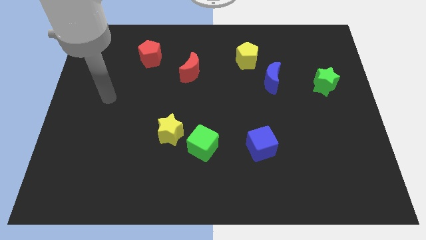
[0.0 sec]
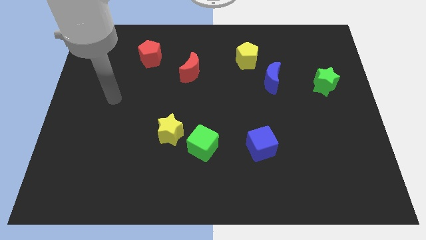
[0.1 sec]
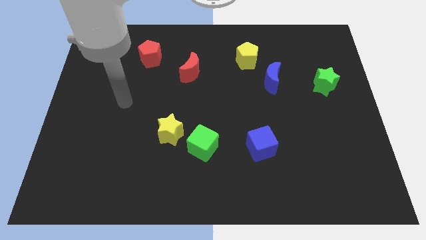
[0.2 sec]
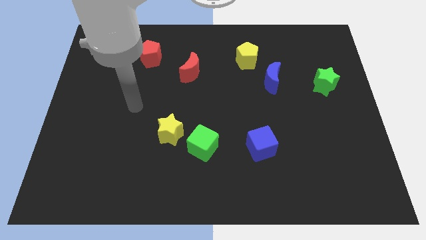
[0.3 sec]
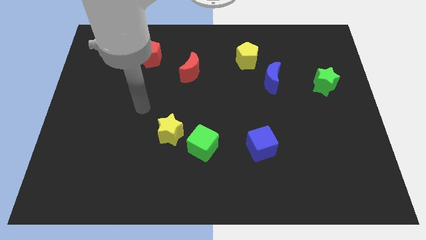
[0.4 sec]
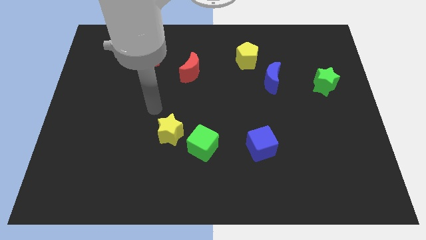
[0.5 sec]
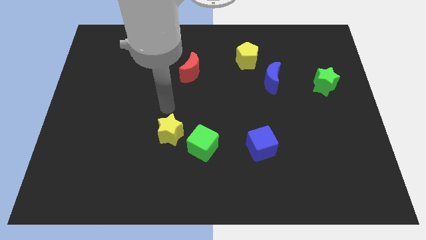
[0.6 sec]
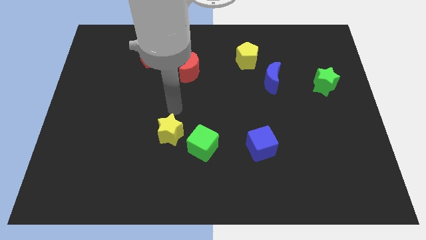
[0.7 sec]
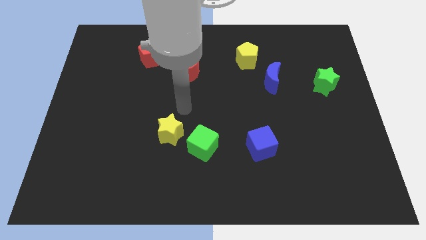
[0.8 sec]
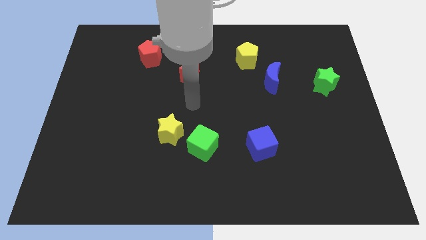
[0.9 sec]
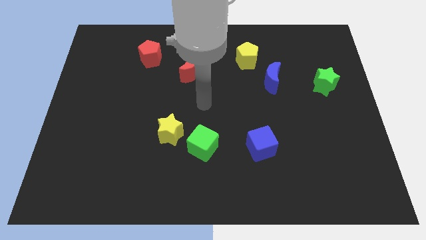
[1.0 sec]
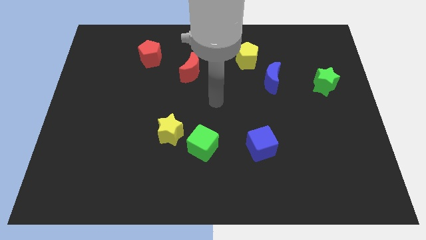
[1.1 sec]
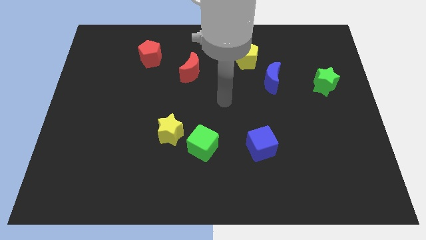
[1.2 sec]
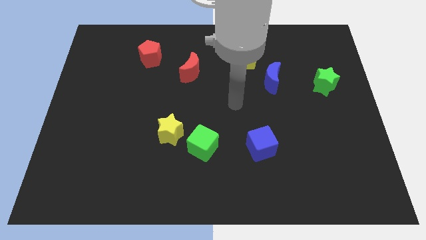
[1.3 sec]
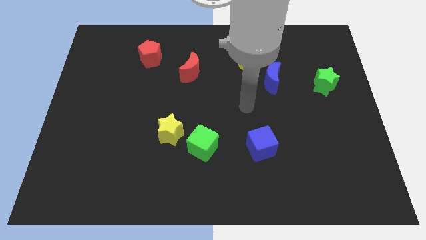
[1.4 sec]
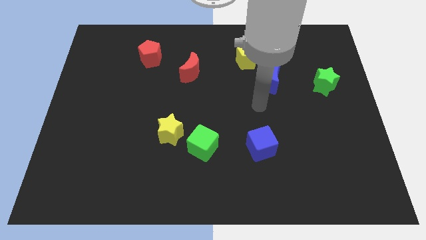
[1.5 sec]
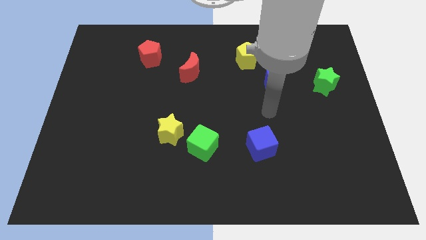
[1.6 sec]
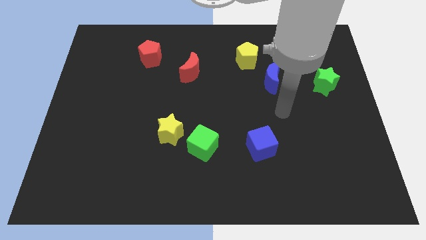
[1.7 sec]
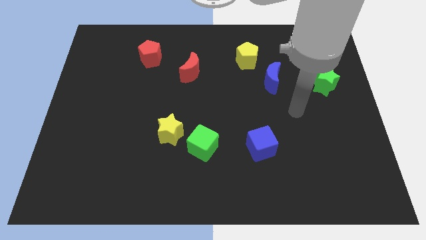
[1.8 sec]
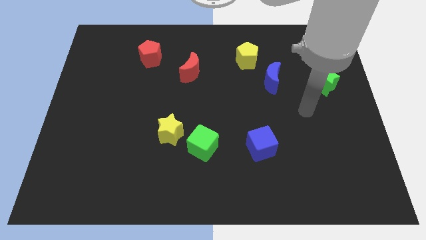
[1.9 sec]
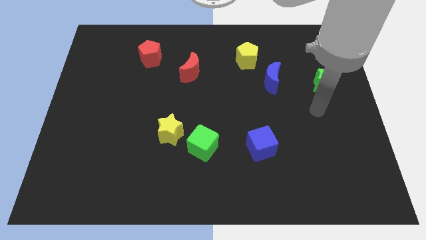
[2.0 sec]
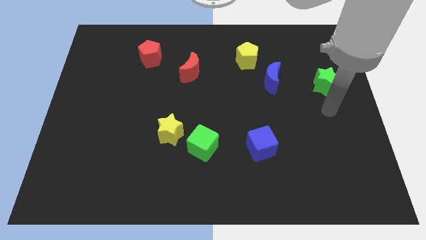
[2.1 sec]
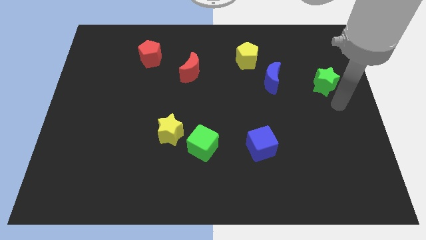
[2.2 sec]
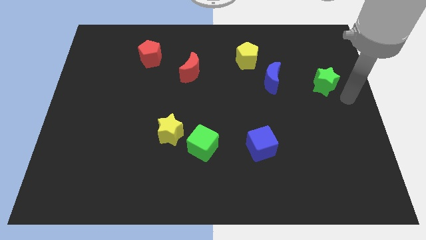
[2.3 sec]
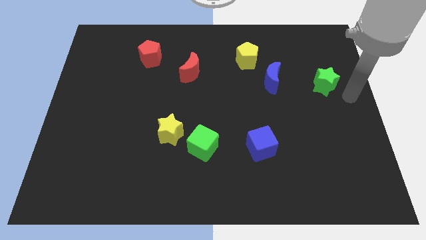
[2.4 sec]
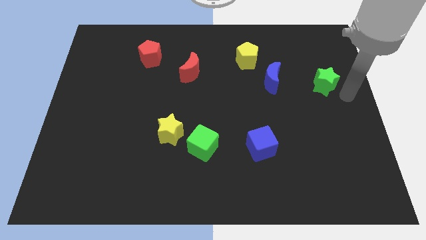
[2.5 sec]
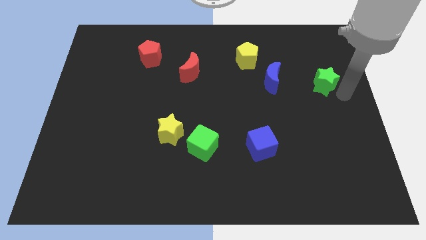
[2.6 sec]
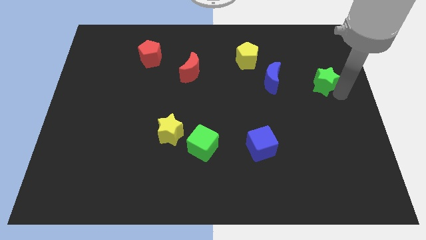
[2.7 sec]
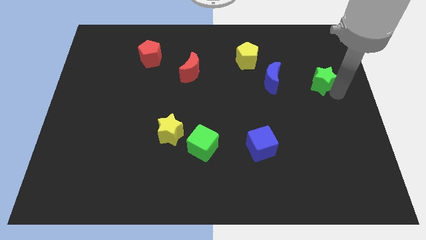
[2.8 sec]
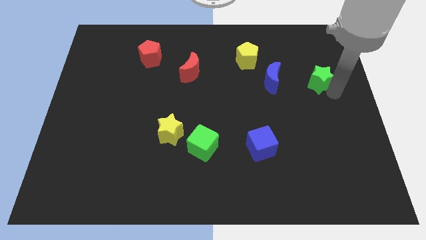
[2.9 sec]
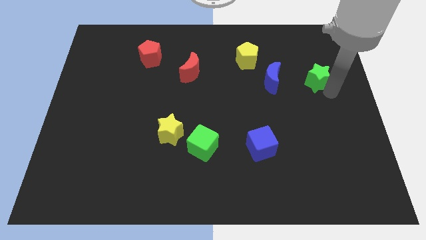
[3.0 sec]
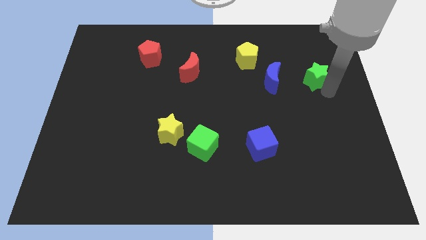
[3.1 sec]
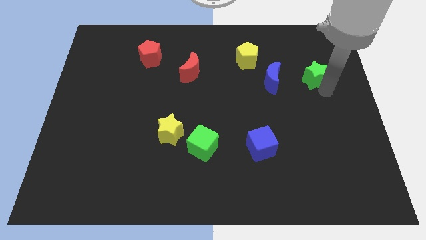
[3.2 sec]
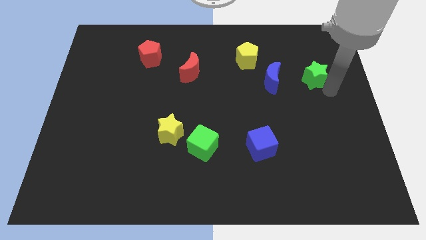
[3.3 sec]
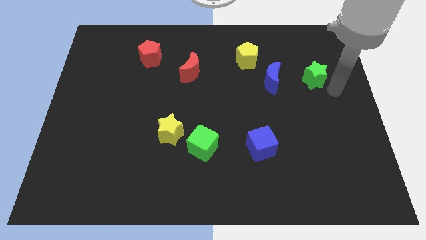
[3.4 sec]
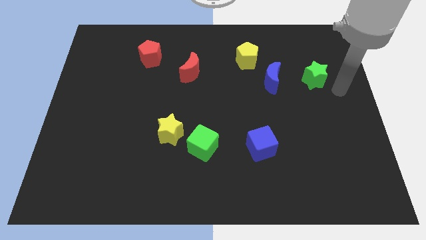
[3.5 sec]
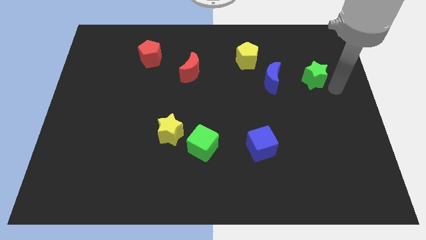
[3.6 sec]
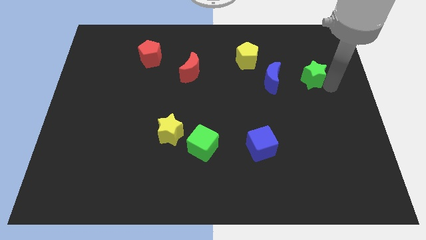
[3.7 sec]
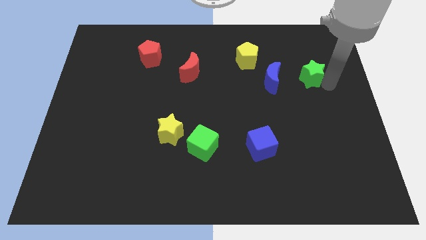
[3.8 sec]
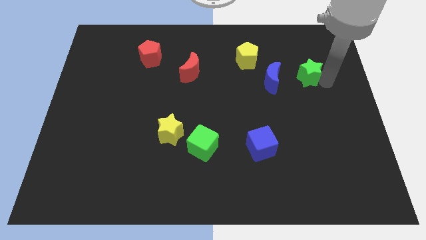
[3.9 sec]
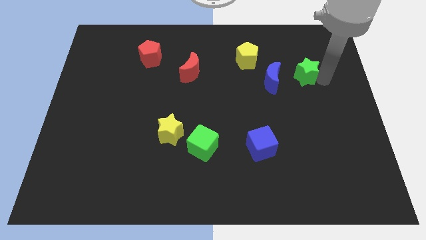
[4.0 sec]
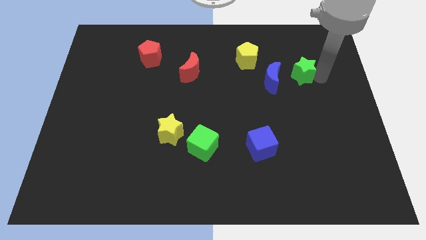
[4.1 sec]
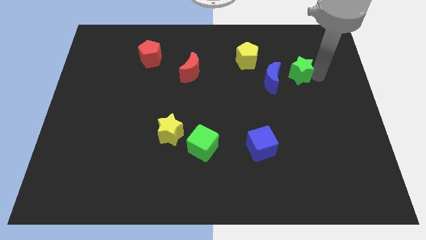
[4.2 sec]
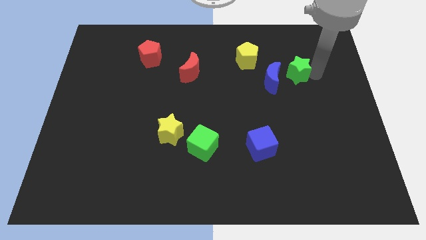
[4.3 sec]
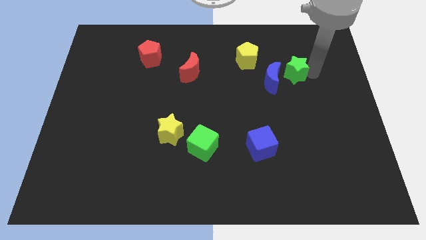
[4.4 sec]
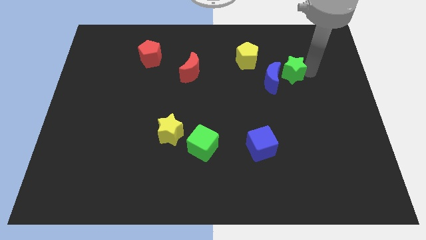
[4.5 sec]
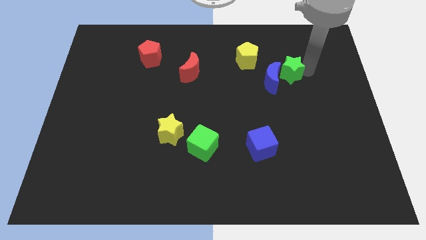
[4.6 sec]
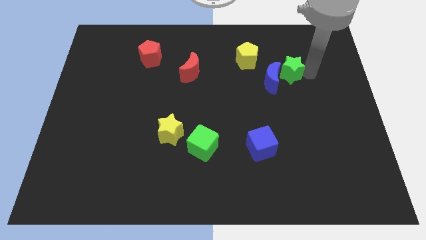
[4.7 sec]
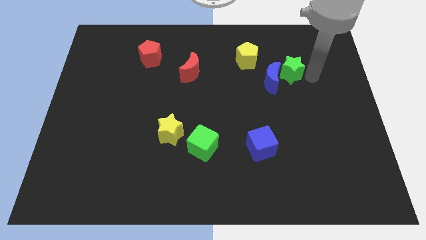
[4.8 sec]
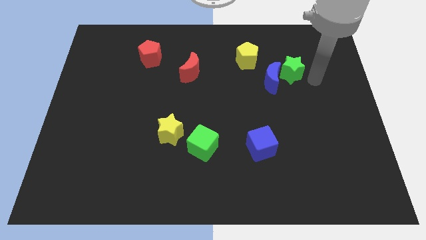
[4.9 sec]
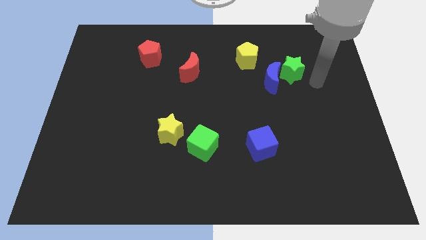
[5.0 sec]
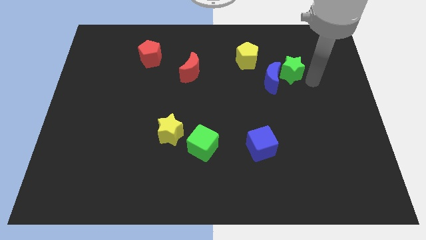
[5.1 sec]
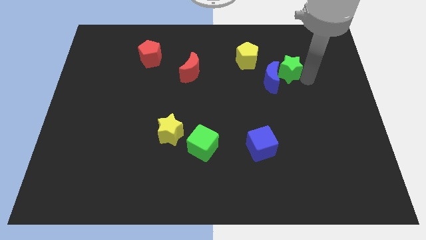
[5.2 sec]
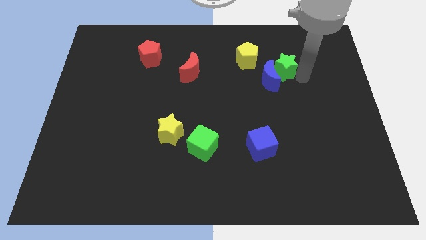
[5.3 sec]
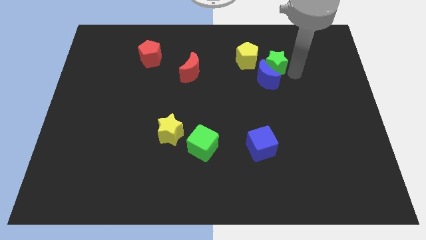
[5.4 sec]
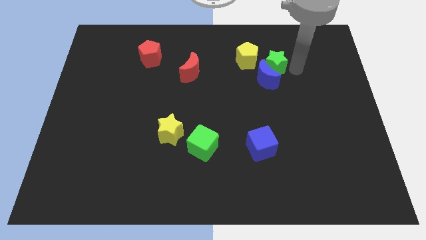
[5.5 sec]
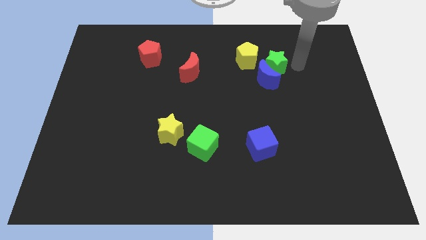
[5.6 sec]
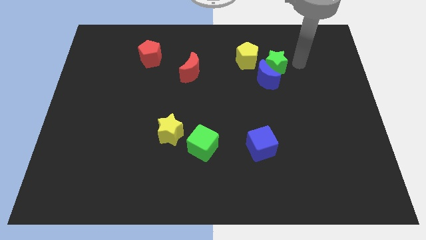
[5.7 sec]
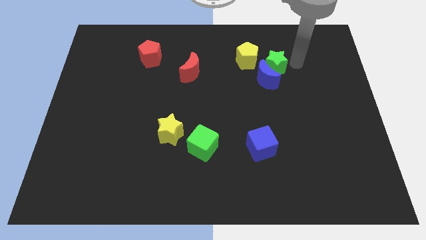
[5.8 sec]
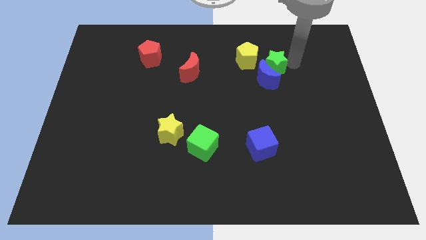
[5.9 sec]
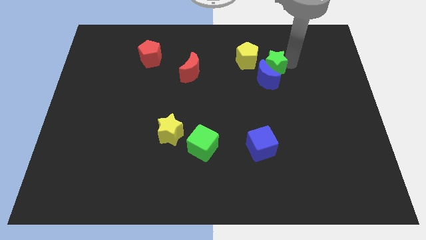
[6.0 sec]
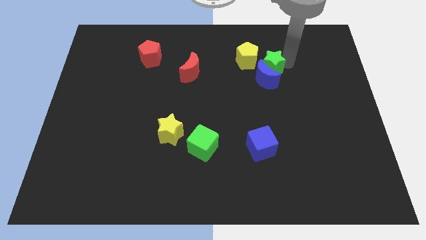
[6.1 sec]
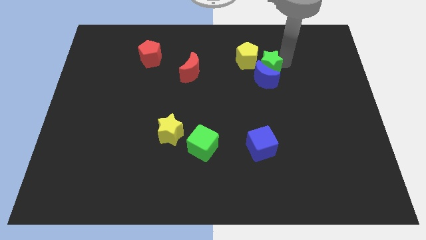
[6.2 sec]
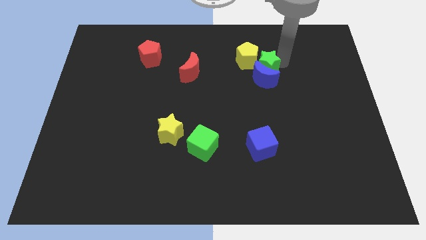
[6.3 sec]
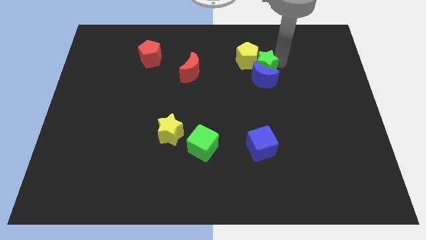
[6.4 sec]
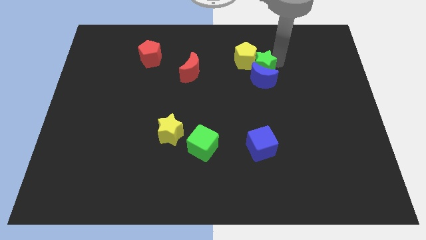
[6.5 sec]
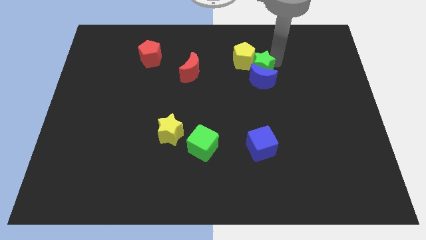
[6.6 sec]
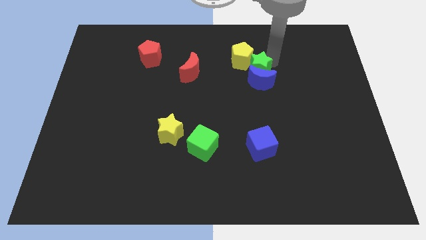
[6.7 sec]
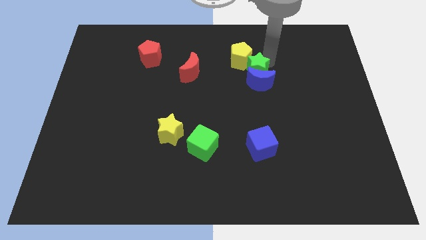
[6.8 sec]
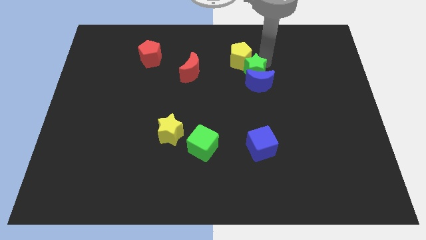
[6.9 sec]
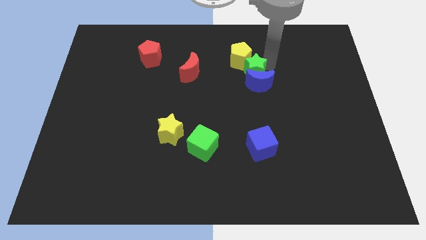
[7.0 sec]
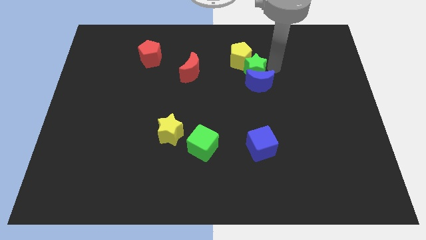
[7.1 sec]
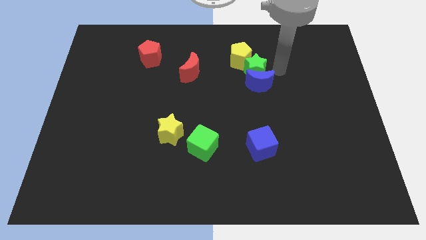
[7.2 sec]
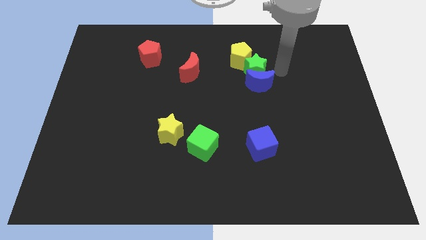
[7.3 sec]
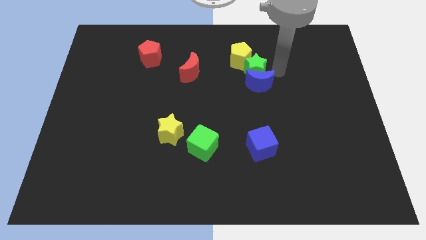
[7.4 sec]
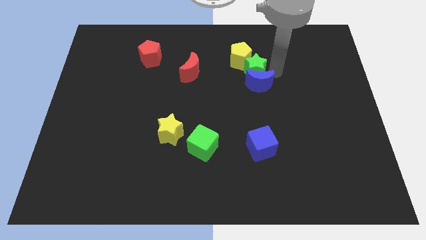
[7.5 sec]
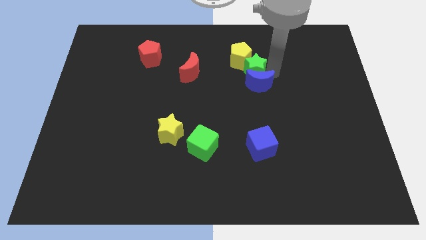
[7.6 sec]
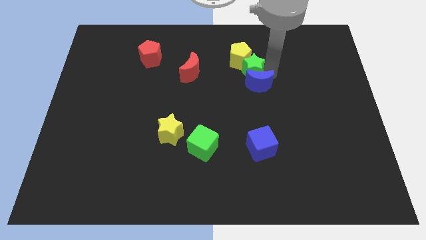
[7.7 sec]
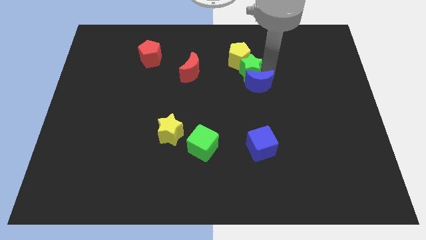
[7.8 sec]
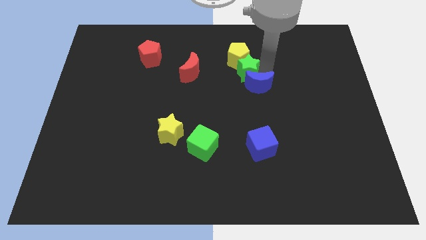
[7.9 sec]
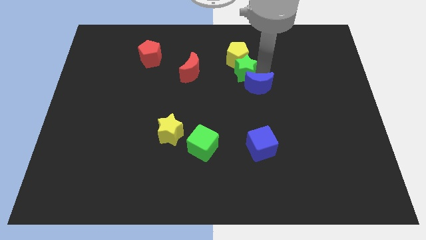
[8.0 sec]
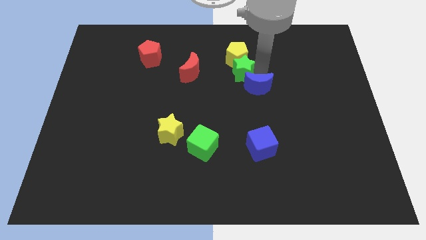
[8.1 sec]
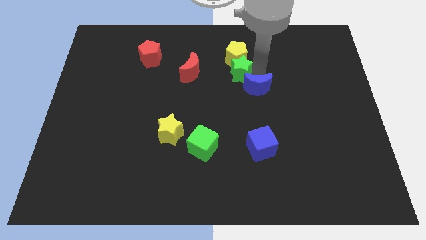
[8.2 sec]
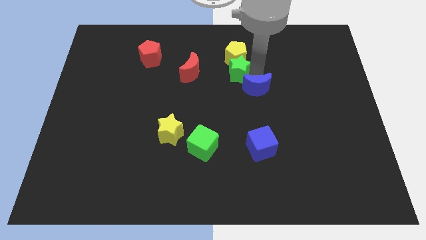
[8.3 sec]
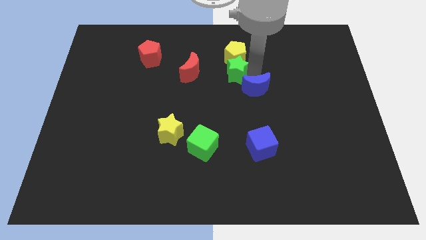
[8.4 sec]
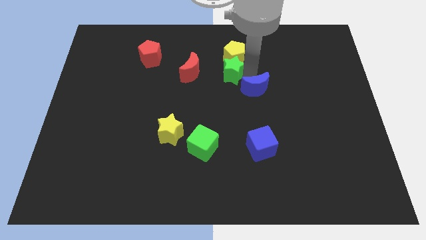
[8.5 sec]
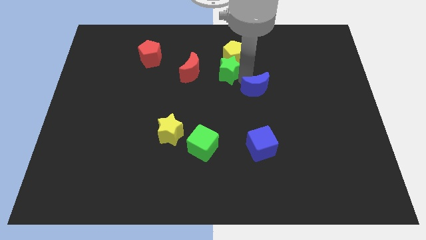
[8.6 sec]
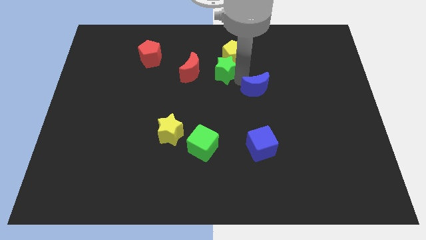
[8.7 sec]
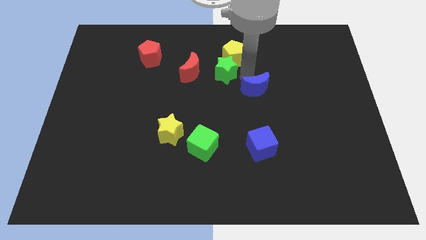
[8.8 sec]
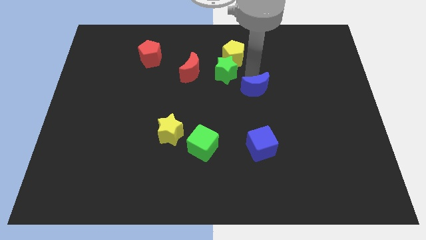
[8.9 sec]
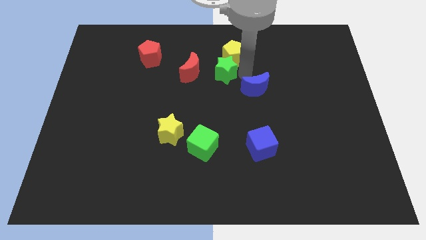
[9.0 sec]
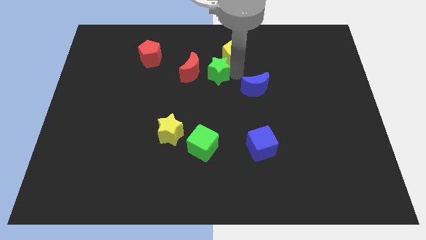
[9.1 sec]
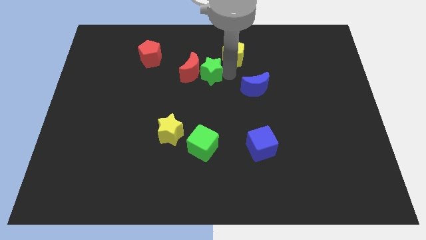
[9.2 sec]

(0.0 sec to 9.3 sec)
move the green star to the red moon
